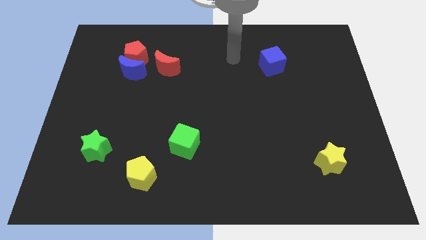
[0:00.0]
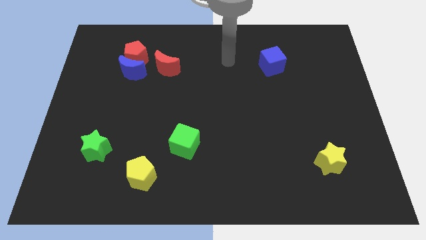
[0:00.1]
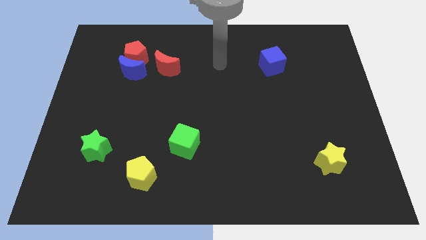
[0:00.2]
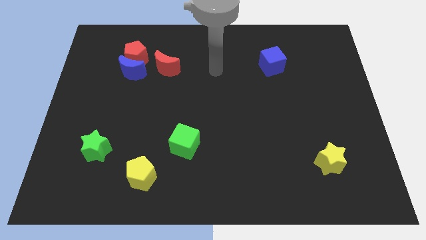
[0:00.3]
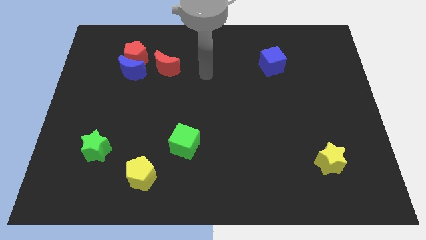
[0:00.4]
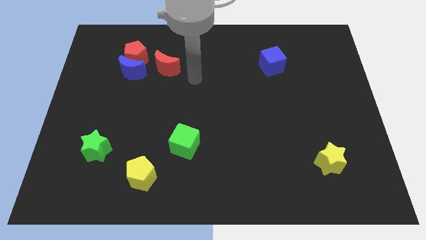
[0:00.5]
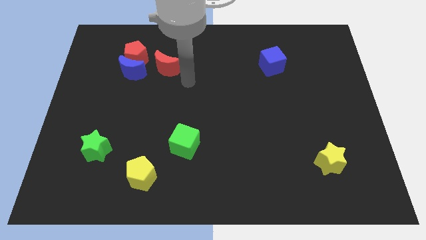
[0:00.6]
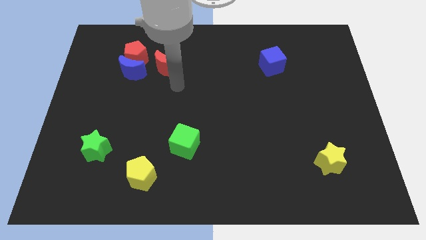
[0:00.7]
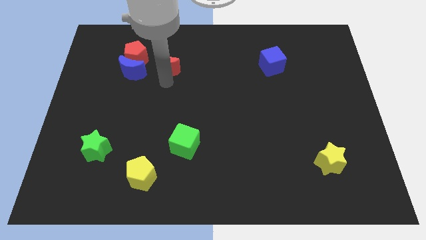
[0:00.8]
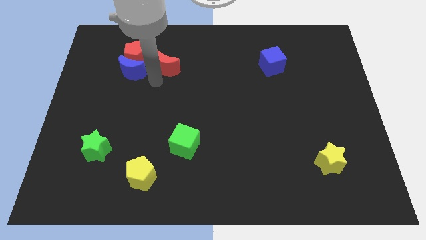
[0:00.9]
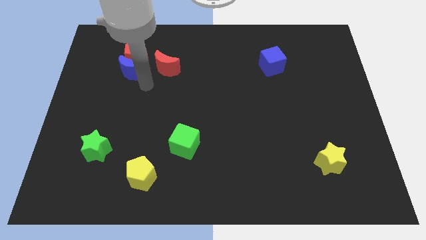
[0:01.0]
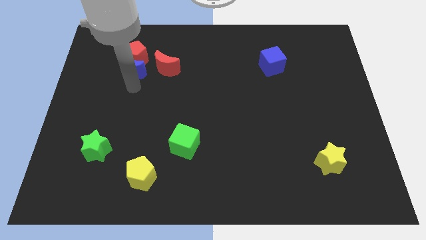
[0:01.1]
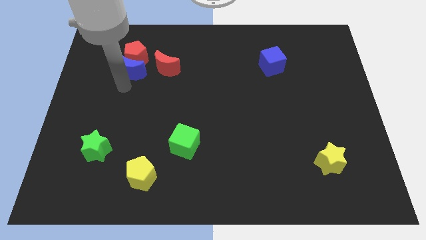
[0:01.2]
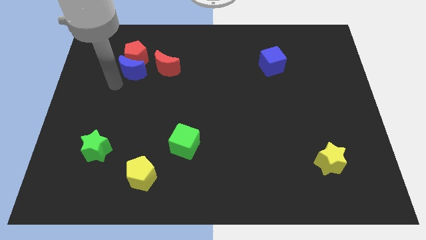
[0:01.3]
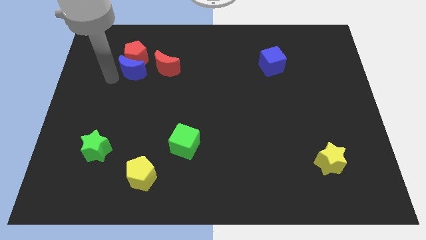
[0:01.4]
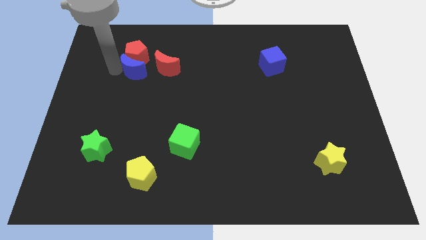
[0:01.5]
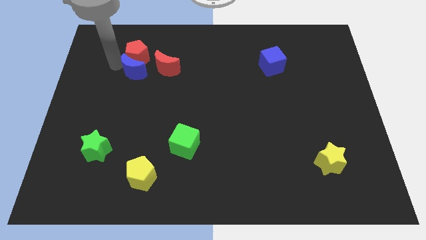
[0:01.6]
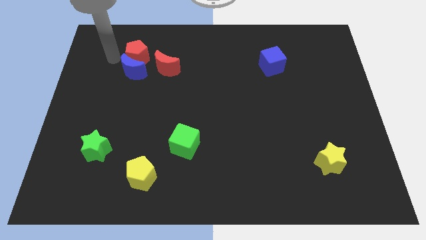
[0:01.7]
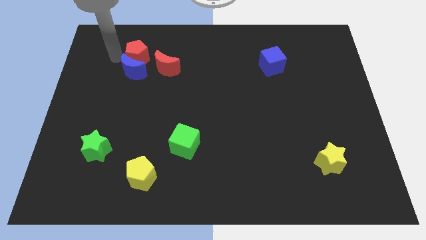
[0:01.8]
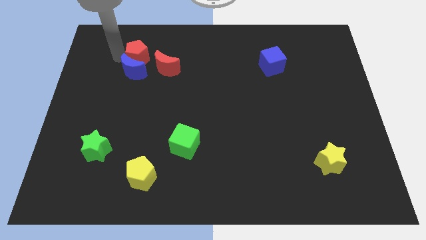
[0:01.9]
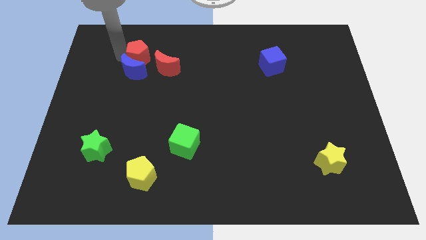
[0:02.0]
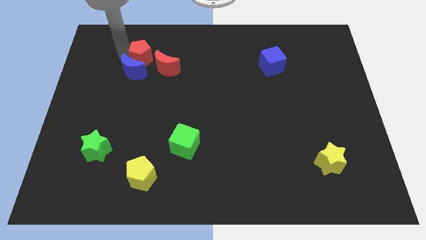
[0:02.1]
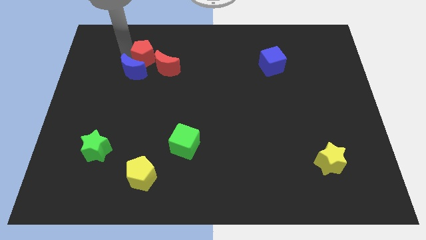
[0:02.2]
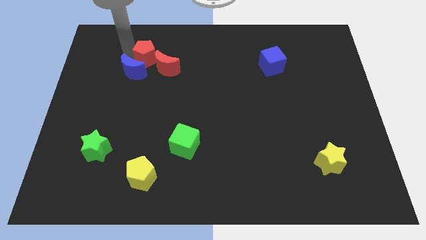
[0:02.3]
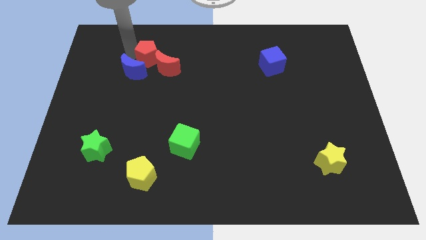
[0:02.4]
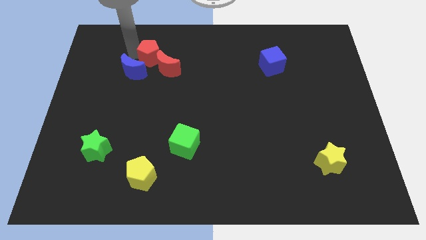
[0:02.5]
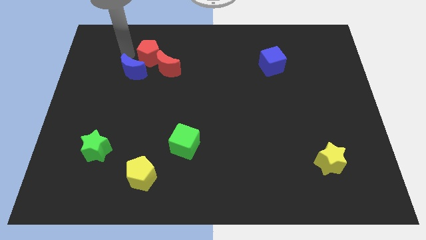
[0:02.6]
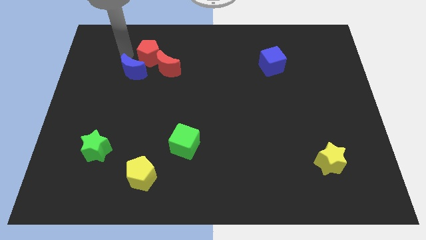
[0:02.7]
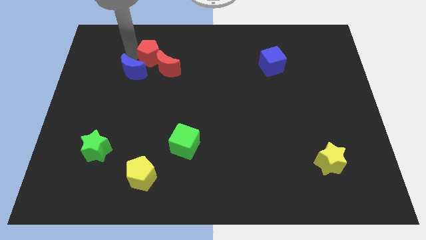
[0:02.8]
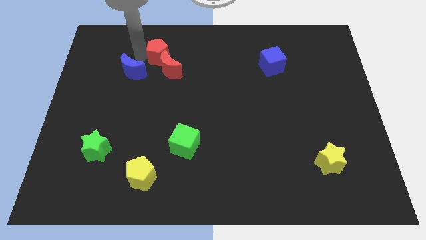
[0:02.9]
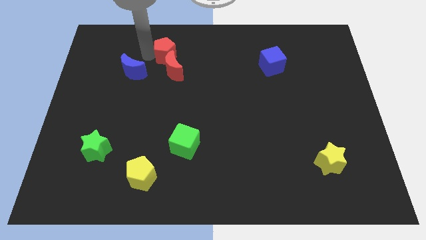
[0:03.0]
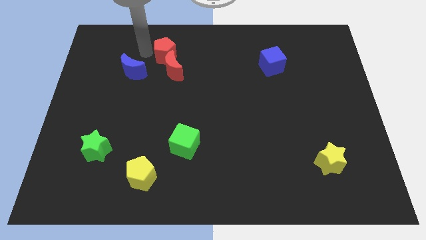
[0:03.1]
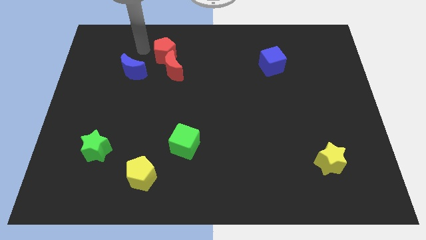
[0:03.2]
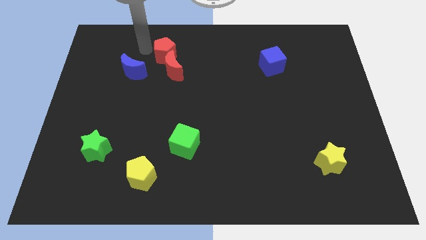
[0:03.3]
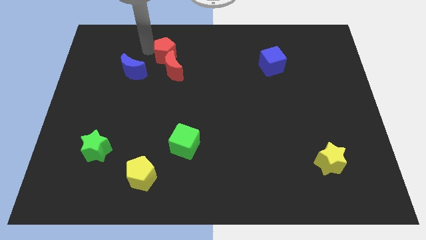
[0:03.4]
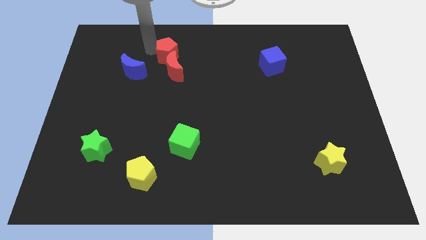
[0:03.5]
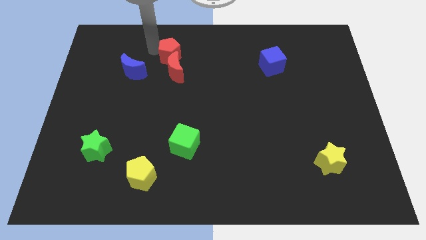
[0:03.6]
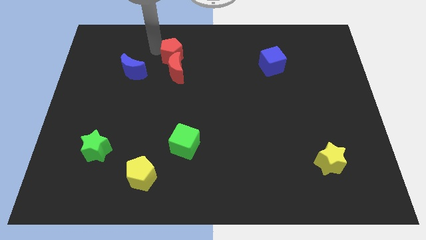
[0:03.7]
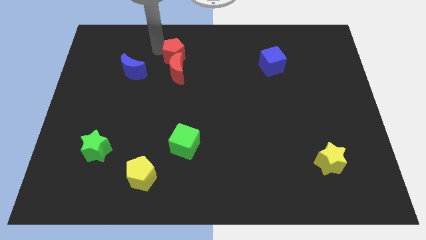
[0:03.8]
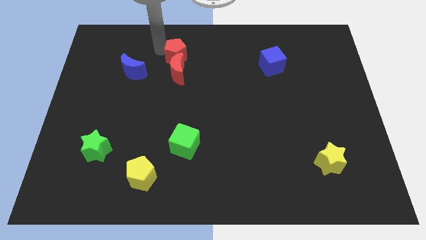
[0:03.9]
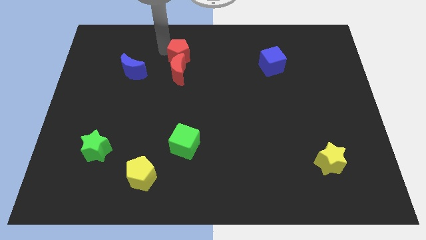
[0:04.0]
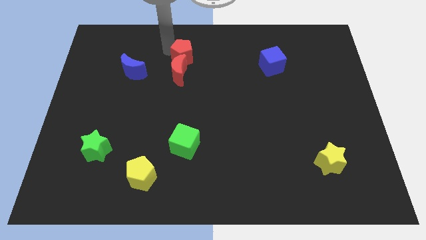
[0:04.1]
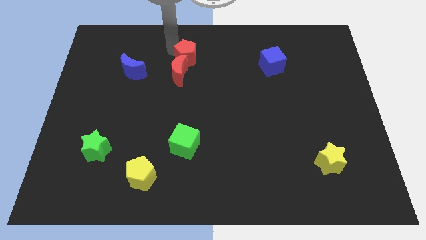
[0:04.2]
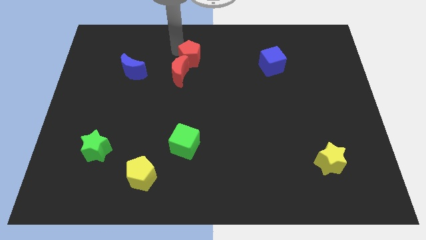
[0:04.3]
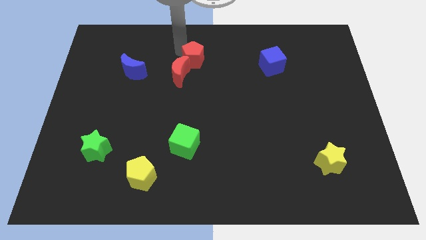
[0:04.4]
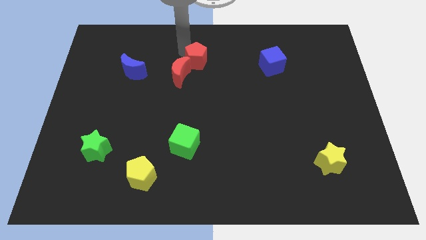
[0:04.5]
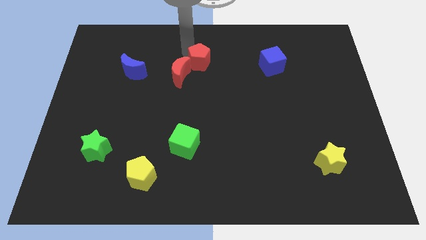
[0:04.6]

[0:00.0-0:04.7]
move the red pentagon right of the red moon

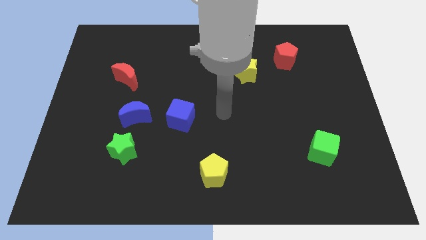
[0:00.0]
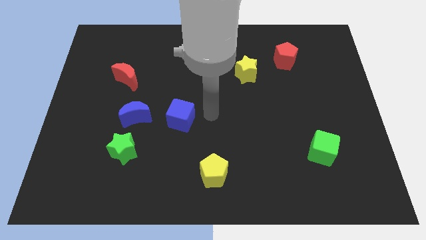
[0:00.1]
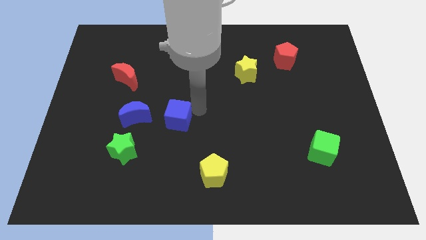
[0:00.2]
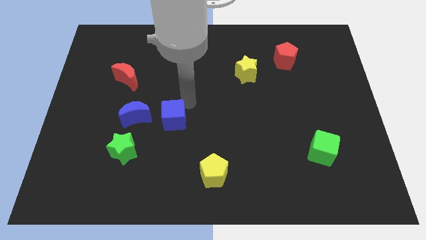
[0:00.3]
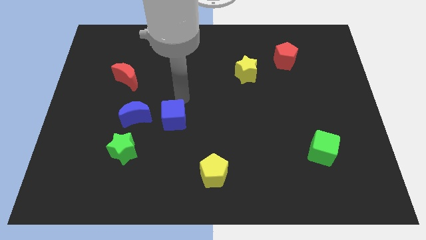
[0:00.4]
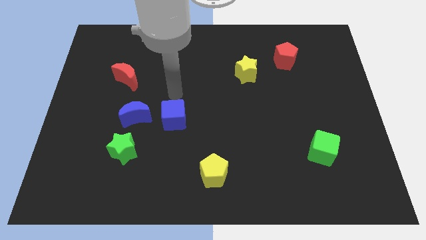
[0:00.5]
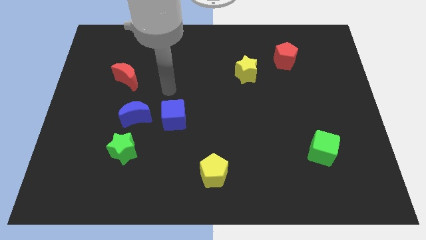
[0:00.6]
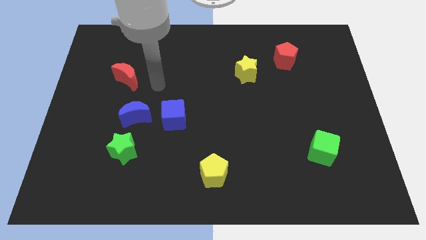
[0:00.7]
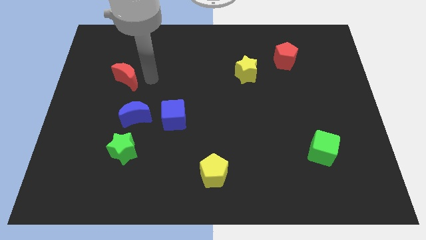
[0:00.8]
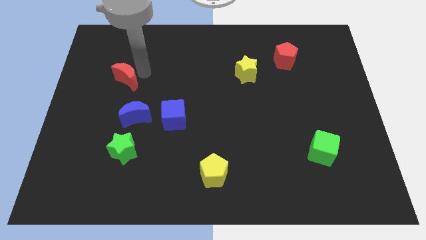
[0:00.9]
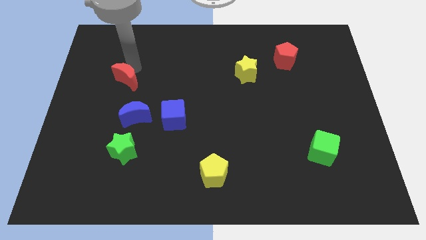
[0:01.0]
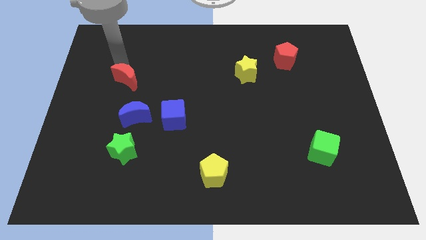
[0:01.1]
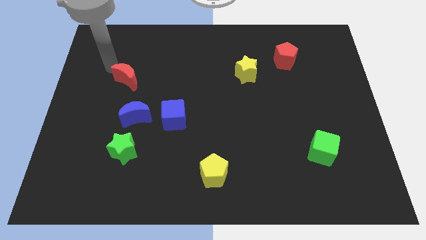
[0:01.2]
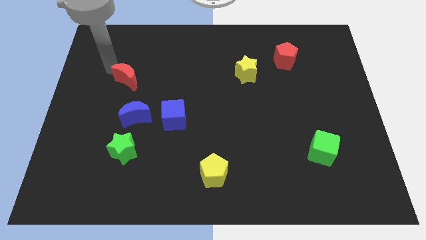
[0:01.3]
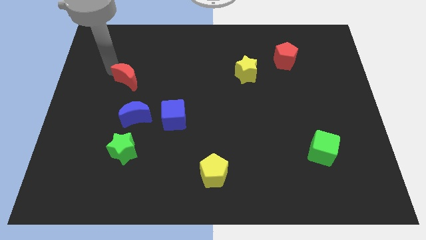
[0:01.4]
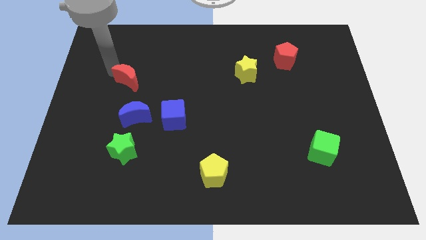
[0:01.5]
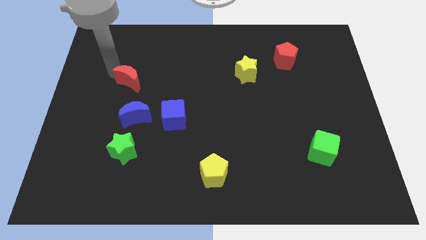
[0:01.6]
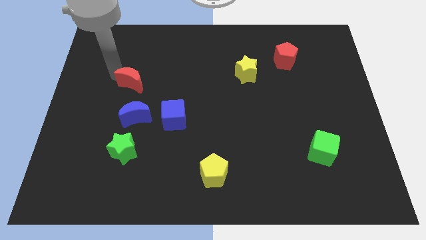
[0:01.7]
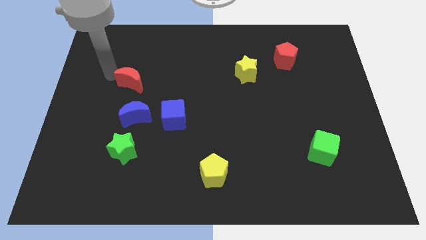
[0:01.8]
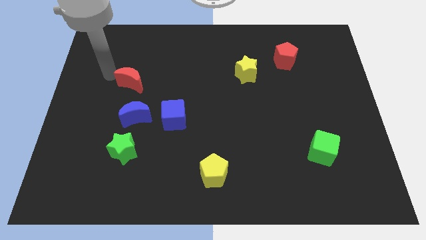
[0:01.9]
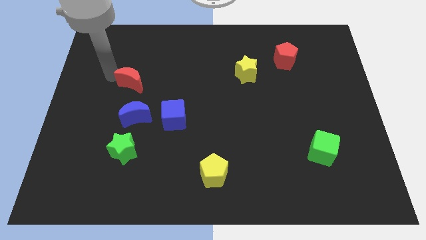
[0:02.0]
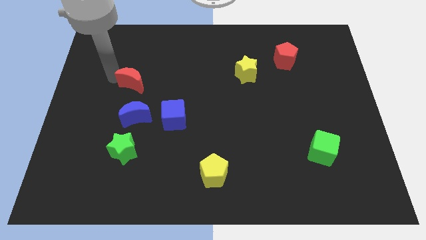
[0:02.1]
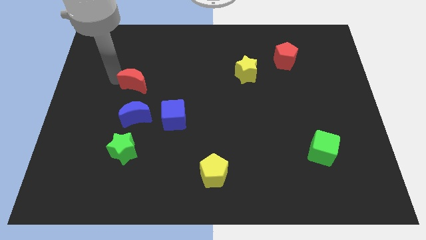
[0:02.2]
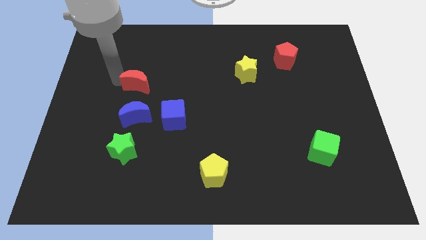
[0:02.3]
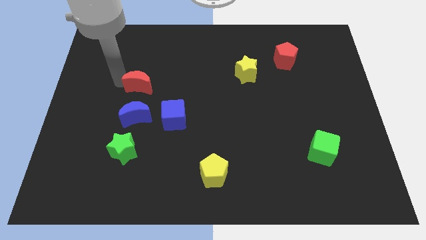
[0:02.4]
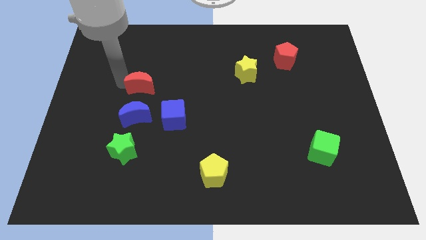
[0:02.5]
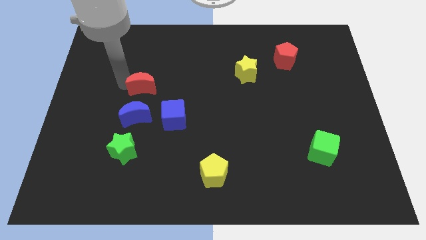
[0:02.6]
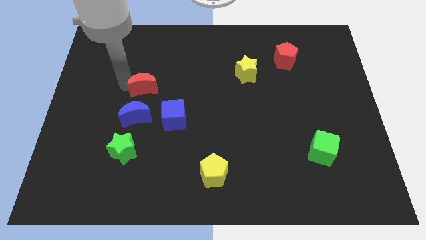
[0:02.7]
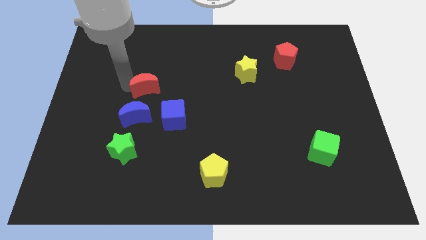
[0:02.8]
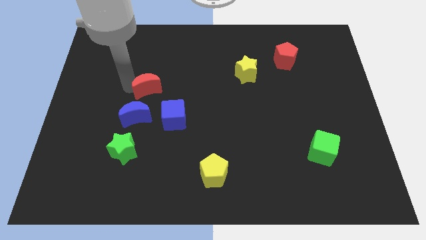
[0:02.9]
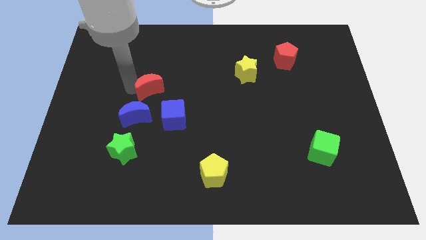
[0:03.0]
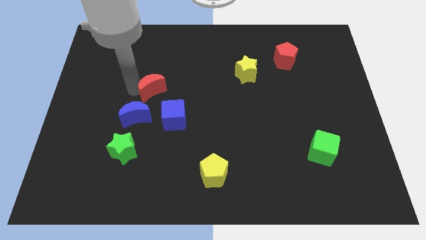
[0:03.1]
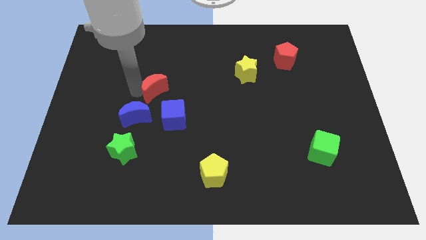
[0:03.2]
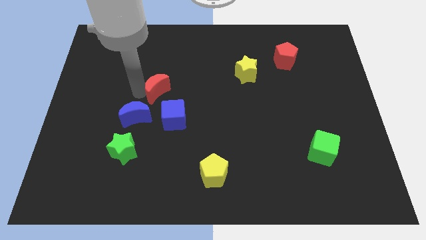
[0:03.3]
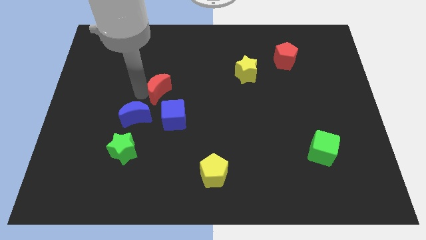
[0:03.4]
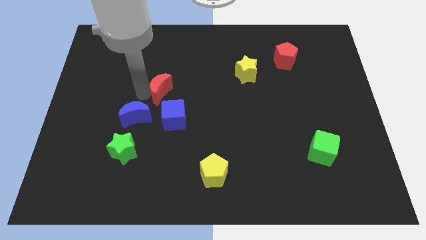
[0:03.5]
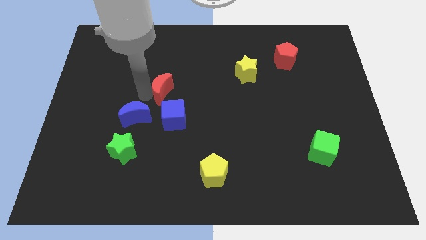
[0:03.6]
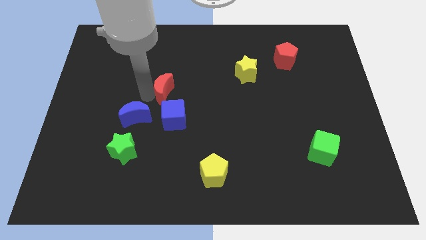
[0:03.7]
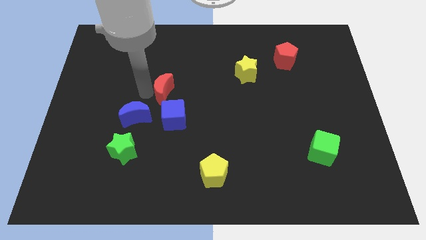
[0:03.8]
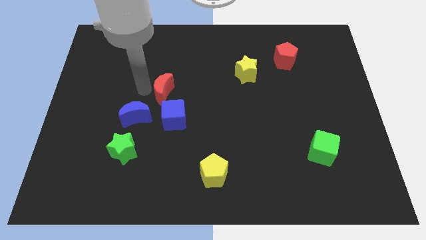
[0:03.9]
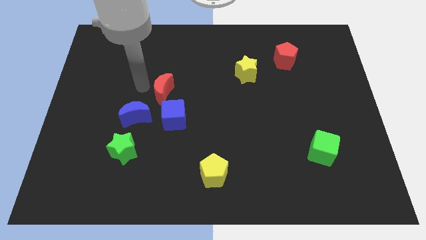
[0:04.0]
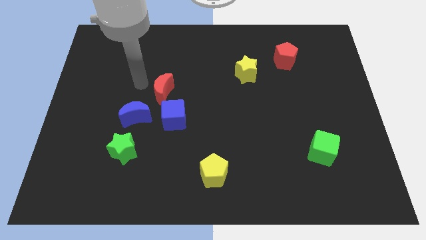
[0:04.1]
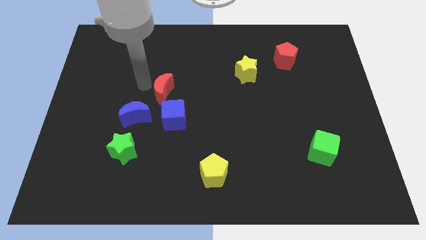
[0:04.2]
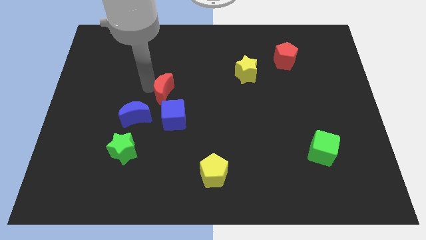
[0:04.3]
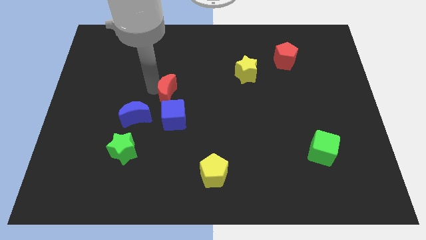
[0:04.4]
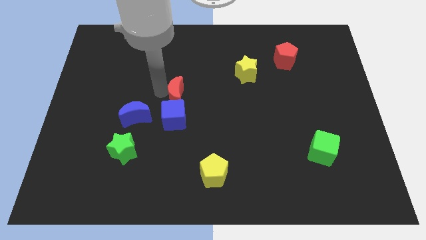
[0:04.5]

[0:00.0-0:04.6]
push the red moon to the top right side of the blue cube
